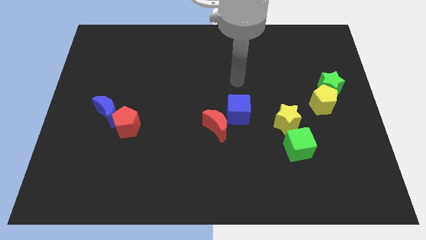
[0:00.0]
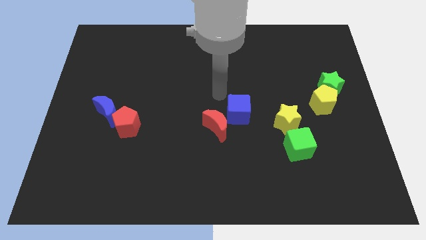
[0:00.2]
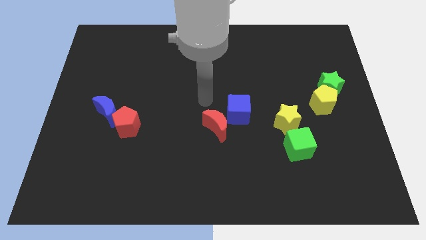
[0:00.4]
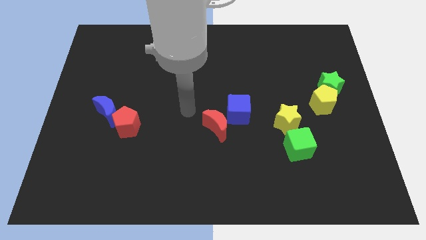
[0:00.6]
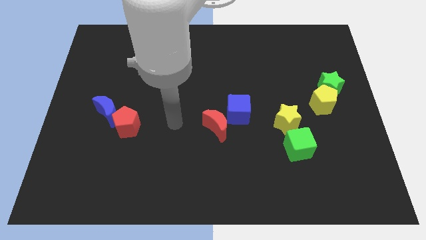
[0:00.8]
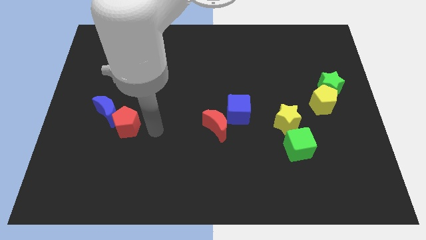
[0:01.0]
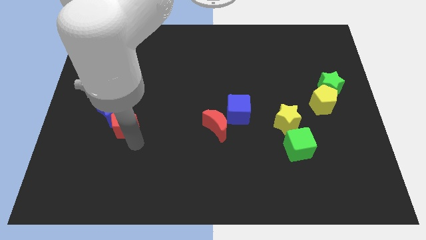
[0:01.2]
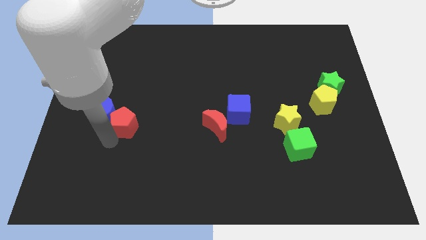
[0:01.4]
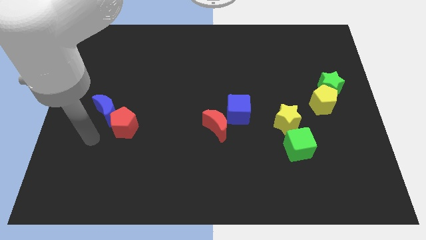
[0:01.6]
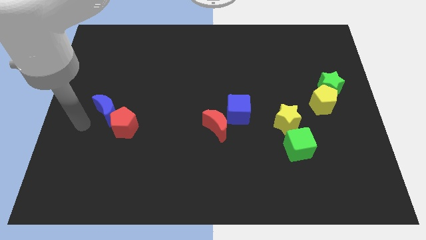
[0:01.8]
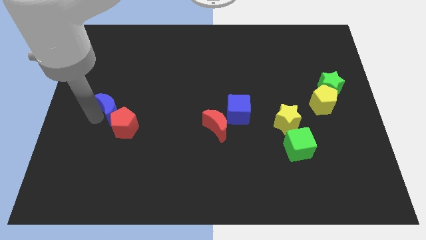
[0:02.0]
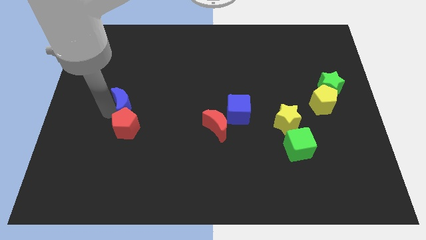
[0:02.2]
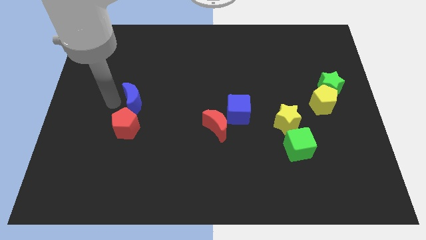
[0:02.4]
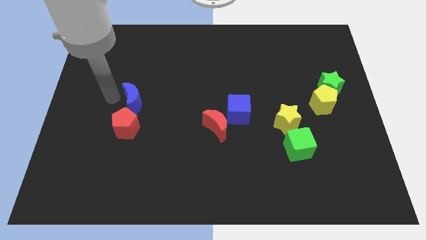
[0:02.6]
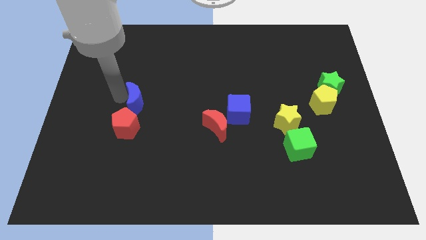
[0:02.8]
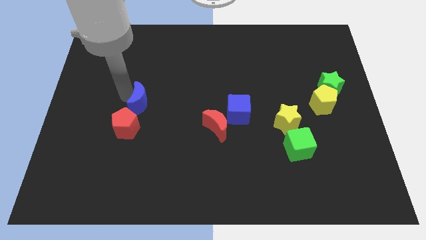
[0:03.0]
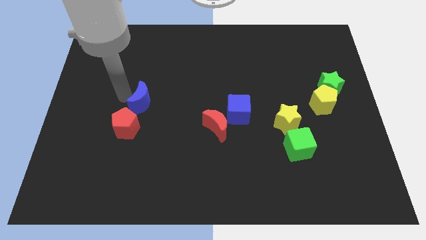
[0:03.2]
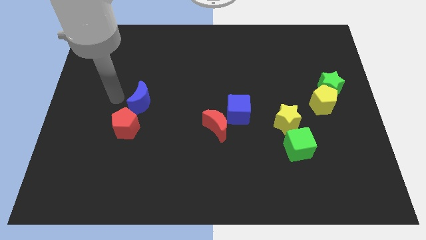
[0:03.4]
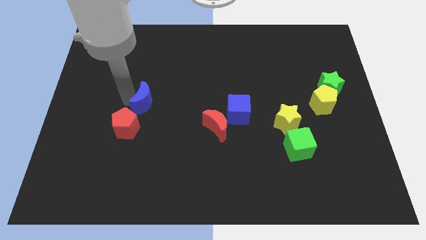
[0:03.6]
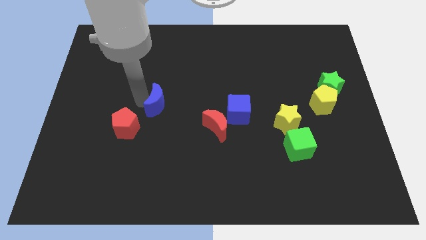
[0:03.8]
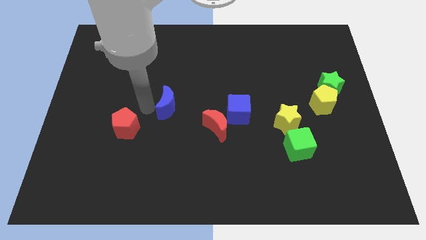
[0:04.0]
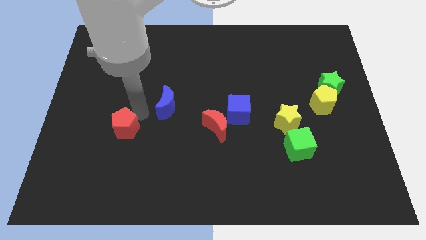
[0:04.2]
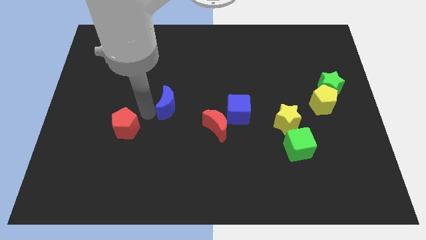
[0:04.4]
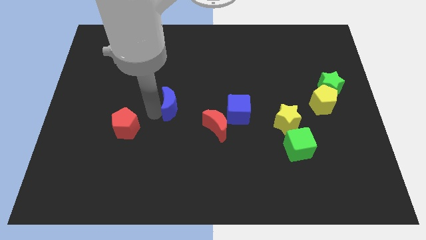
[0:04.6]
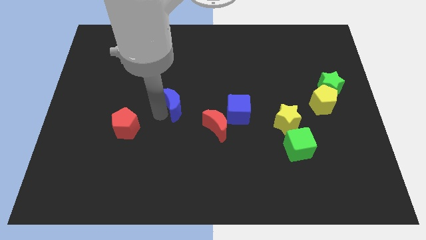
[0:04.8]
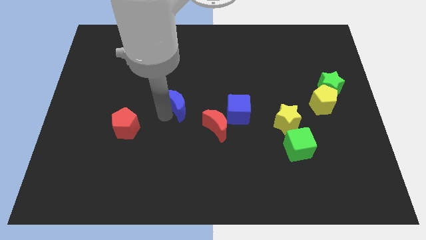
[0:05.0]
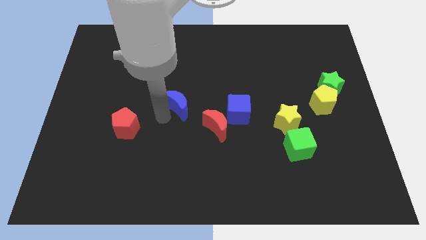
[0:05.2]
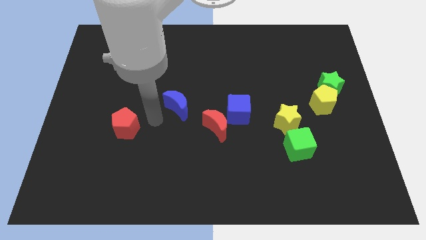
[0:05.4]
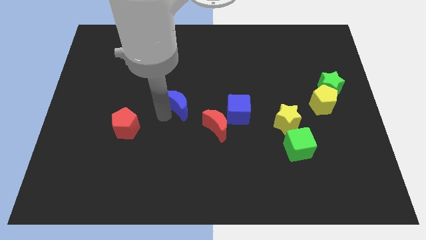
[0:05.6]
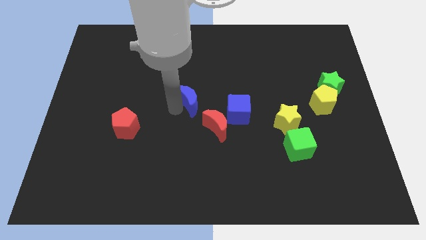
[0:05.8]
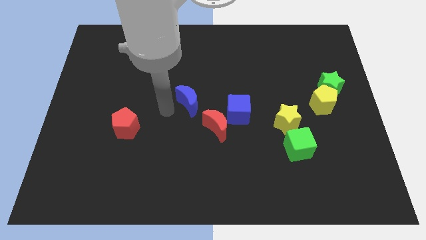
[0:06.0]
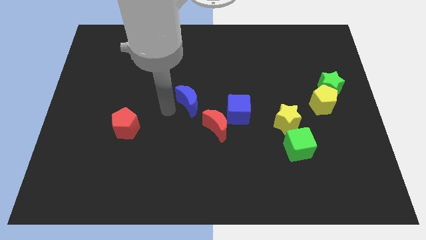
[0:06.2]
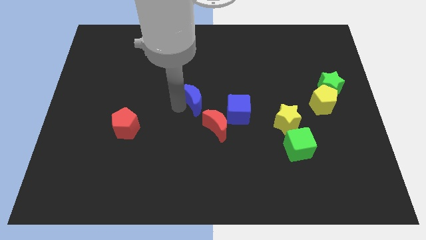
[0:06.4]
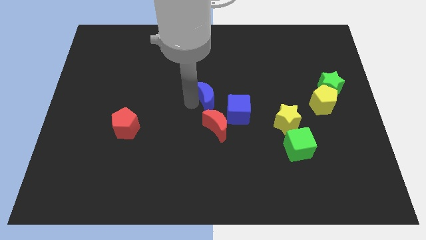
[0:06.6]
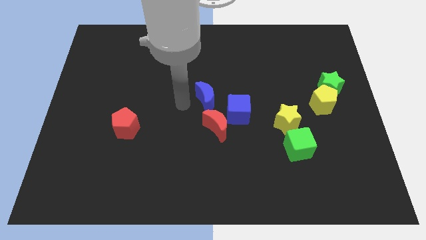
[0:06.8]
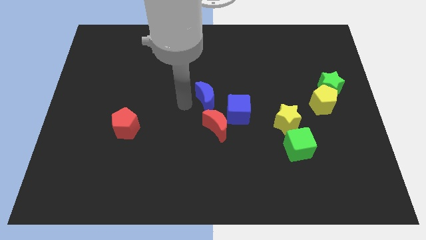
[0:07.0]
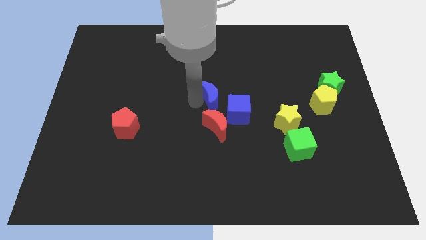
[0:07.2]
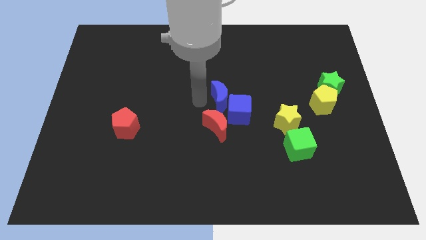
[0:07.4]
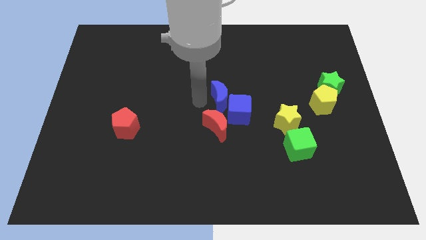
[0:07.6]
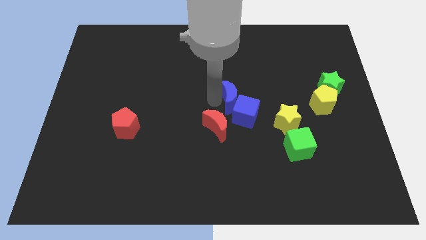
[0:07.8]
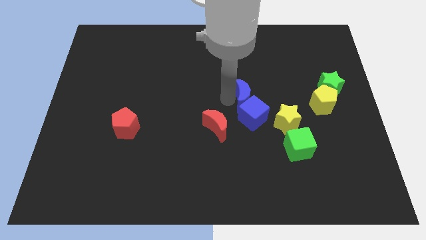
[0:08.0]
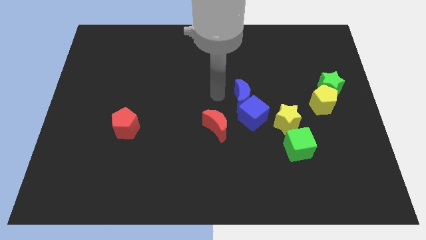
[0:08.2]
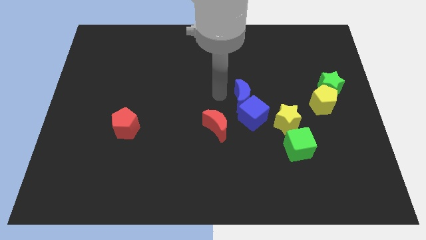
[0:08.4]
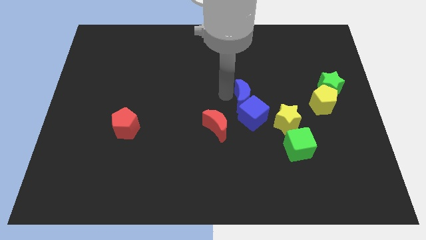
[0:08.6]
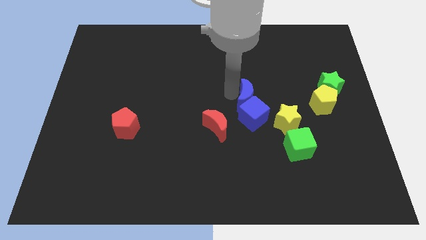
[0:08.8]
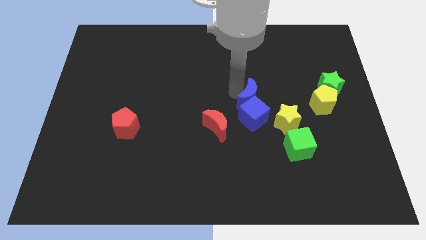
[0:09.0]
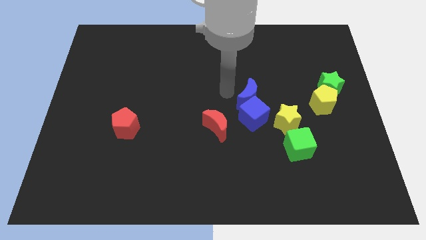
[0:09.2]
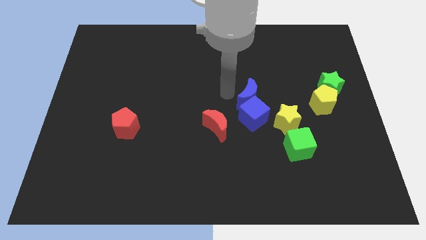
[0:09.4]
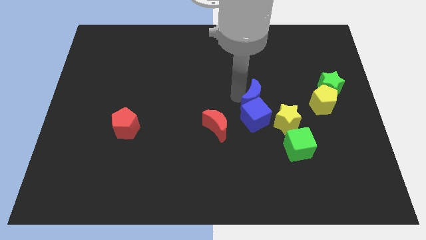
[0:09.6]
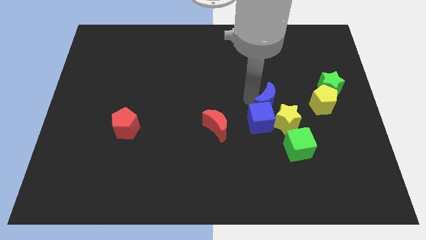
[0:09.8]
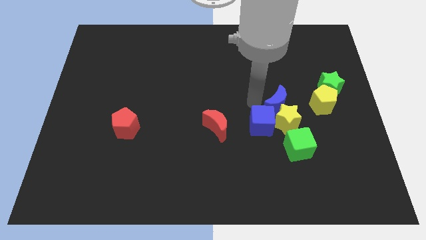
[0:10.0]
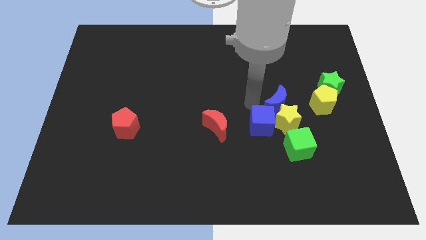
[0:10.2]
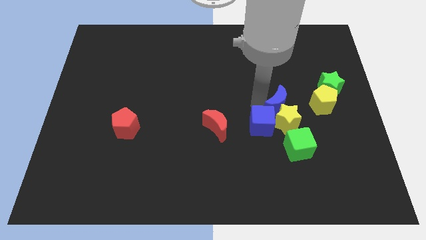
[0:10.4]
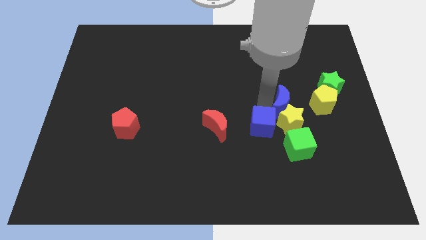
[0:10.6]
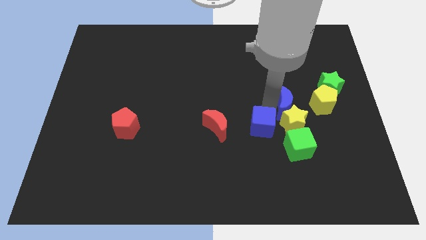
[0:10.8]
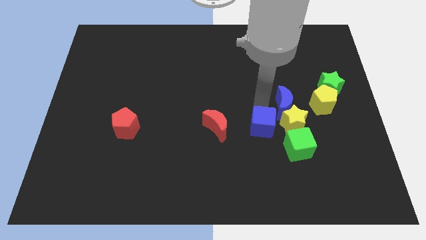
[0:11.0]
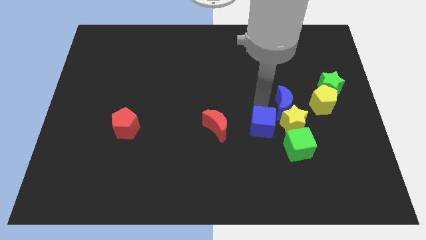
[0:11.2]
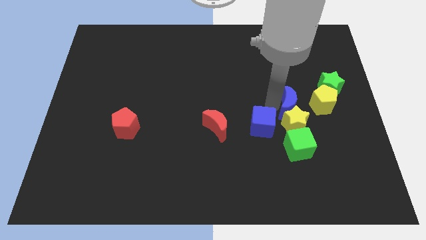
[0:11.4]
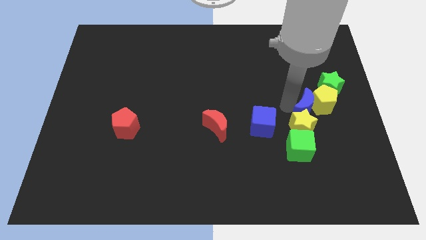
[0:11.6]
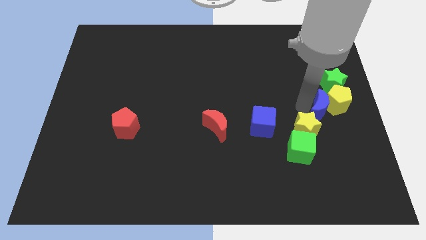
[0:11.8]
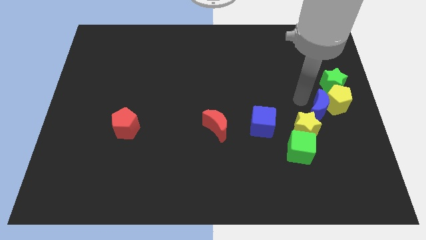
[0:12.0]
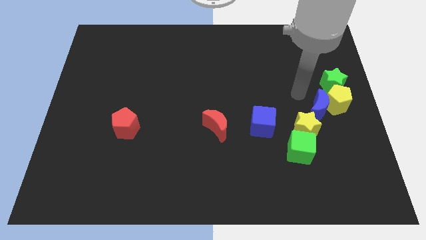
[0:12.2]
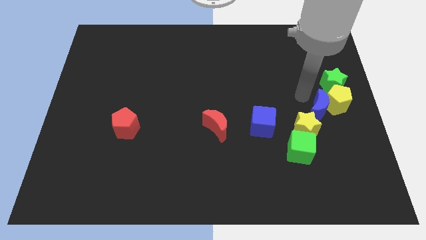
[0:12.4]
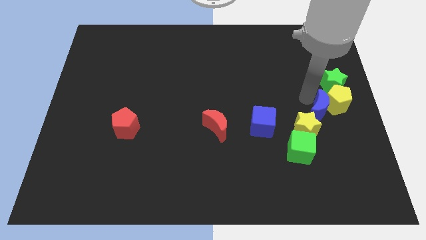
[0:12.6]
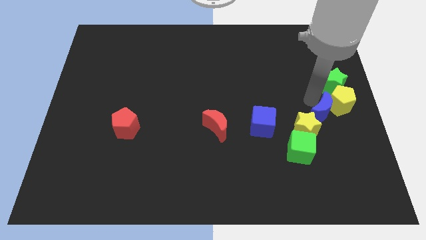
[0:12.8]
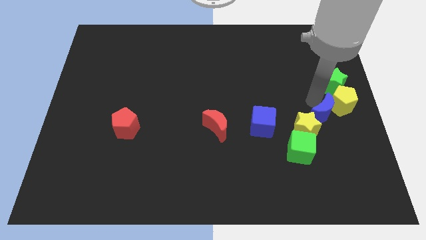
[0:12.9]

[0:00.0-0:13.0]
move the blue moon to the center right
